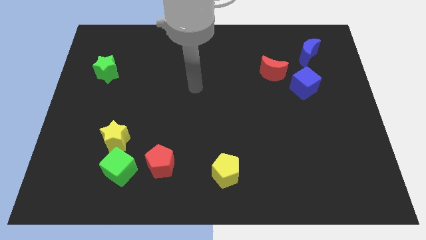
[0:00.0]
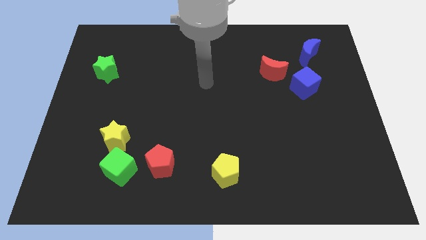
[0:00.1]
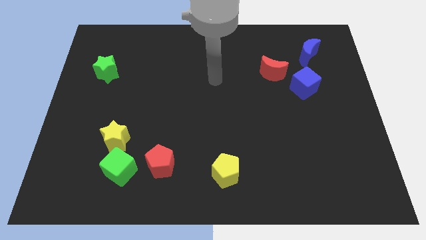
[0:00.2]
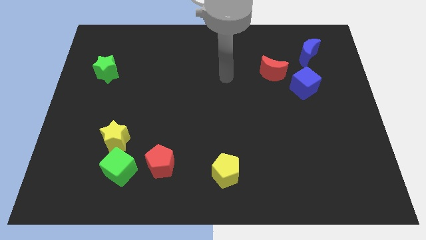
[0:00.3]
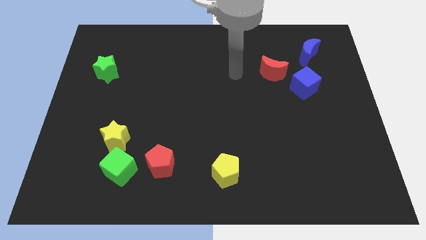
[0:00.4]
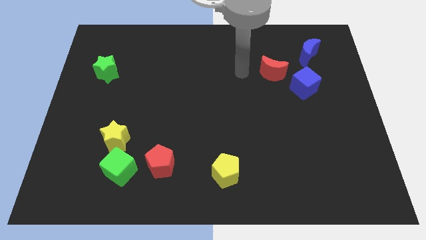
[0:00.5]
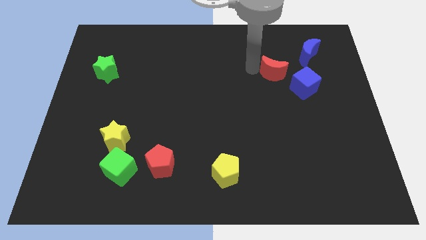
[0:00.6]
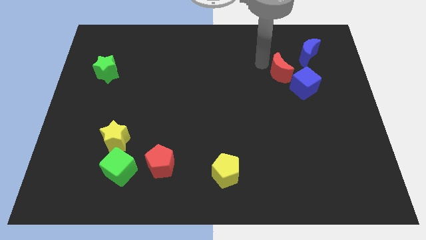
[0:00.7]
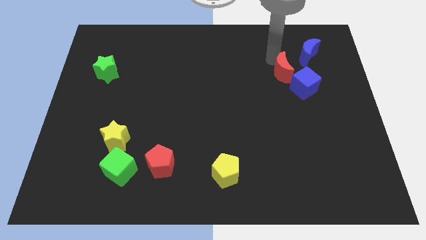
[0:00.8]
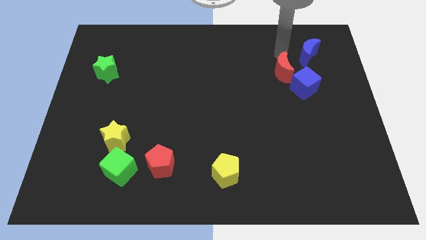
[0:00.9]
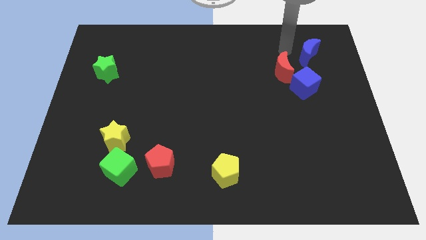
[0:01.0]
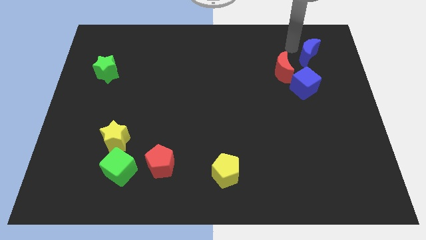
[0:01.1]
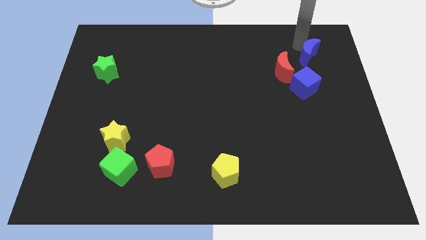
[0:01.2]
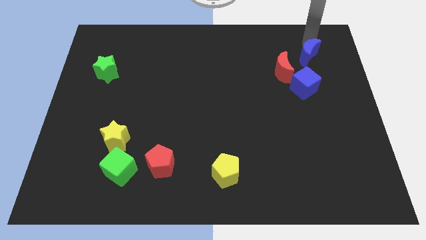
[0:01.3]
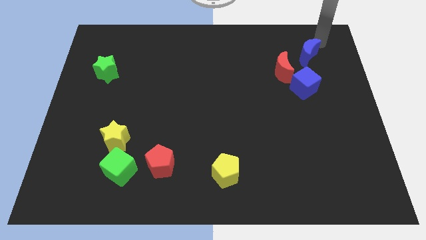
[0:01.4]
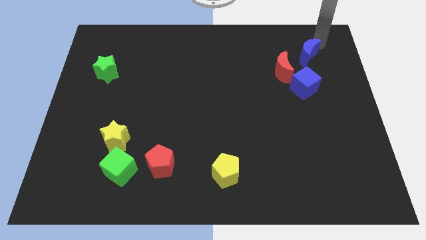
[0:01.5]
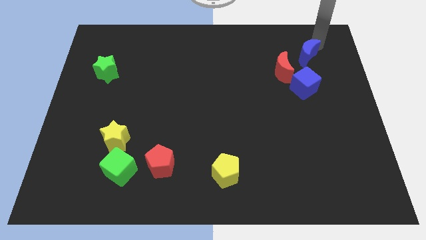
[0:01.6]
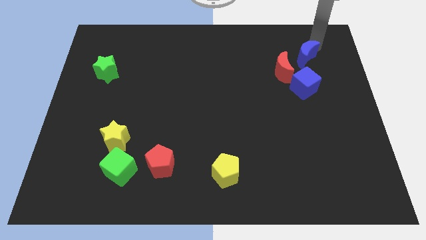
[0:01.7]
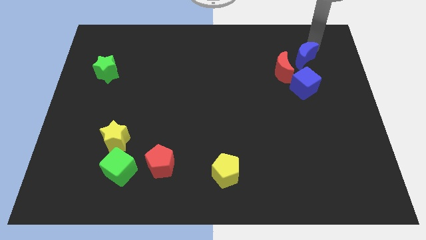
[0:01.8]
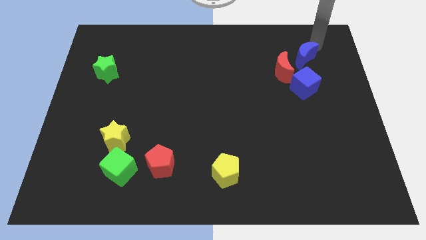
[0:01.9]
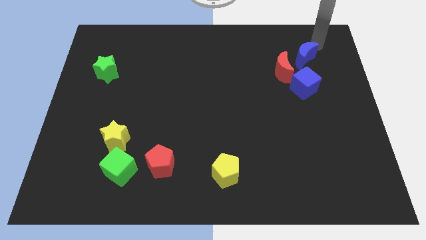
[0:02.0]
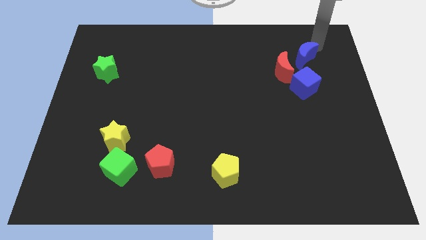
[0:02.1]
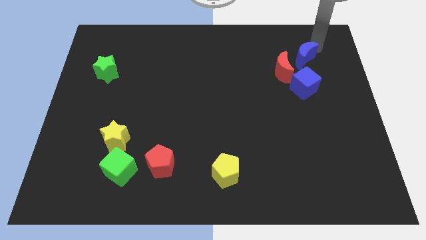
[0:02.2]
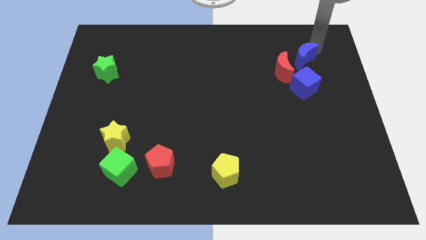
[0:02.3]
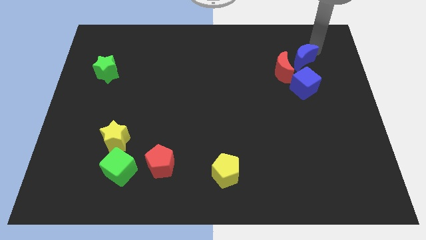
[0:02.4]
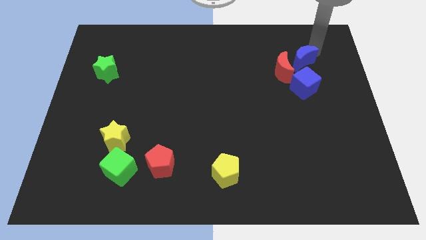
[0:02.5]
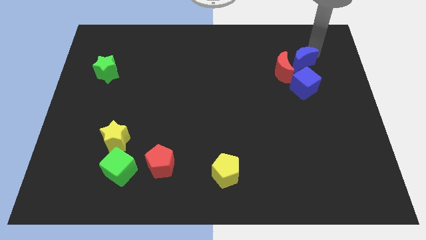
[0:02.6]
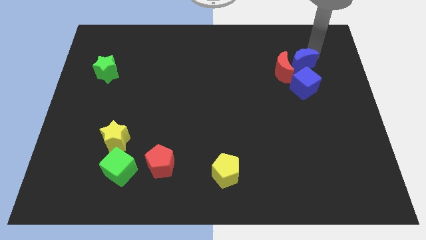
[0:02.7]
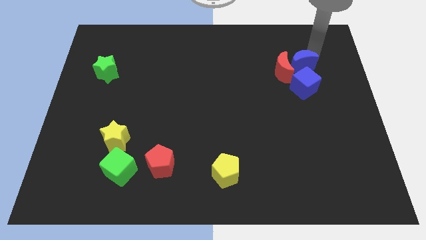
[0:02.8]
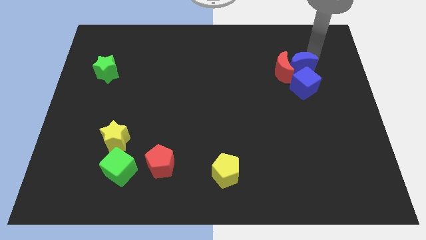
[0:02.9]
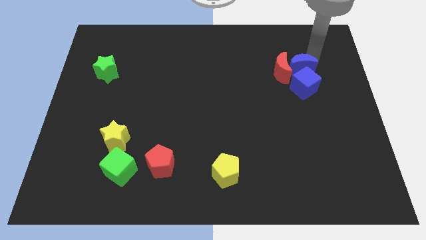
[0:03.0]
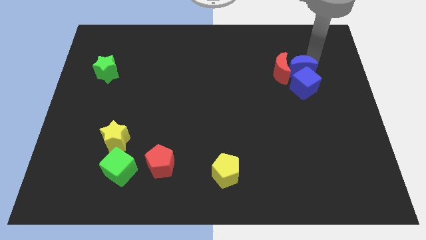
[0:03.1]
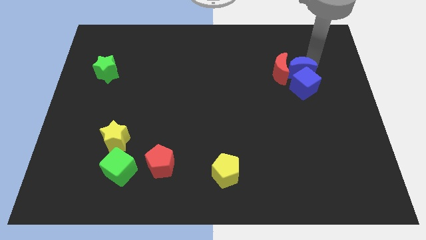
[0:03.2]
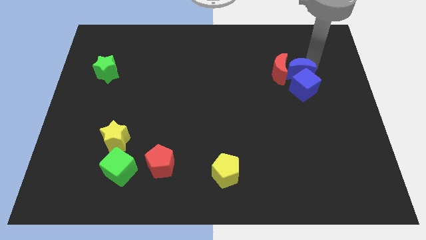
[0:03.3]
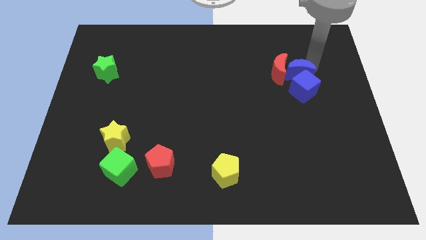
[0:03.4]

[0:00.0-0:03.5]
slightly move the blue moon down and to the left diagonally

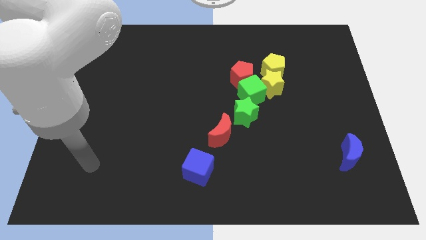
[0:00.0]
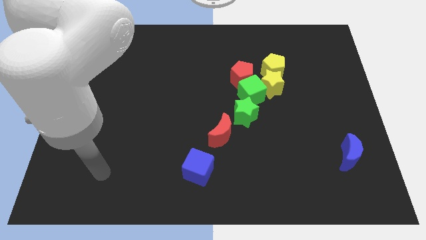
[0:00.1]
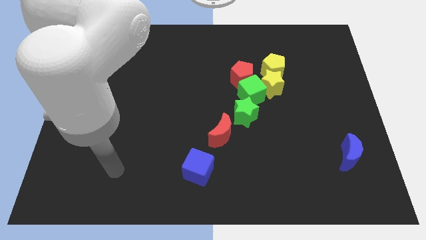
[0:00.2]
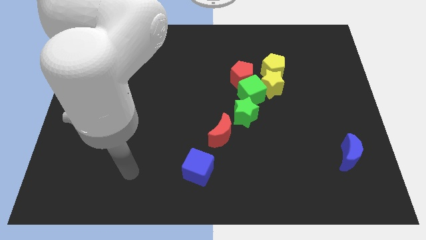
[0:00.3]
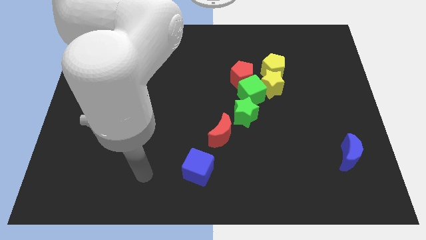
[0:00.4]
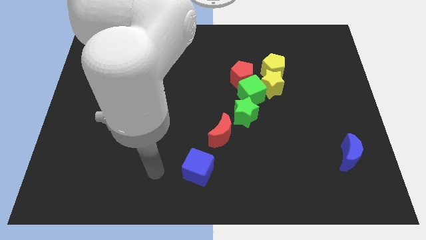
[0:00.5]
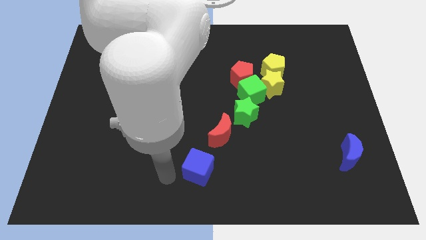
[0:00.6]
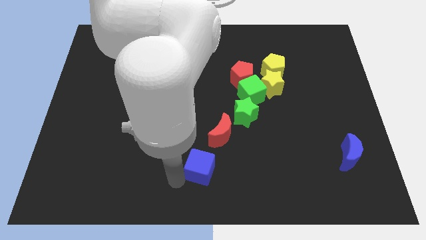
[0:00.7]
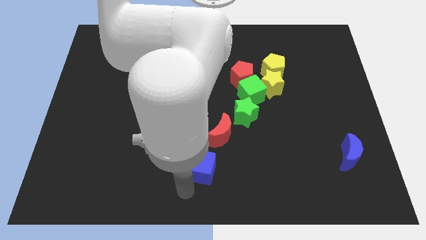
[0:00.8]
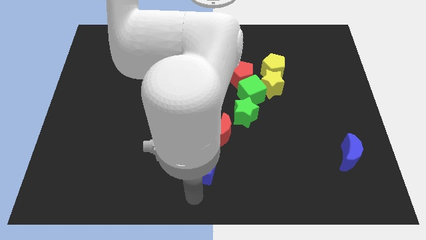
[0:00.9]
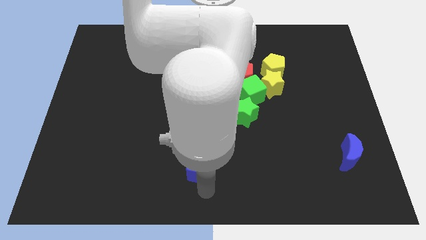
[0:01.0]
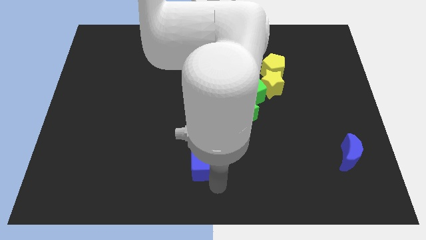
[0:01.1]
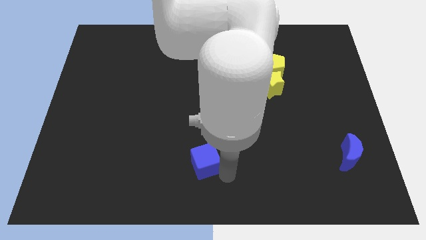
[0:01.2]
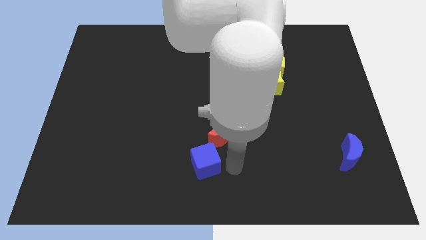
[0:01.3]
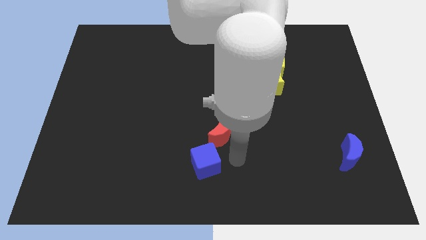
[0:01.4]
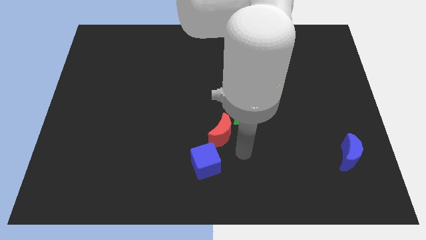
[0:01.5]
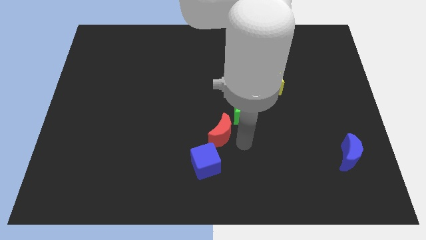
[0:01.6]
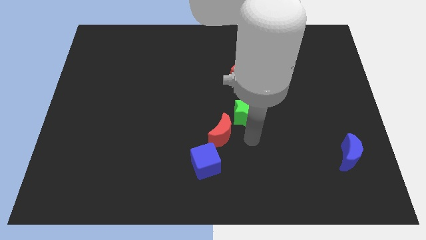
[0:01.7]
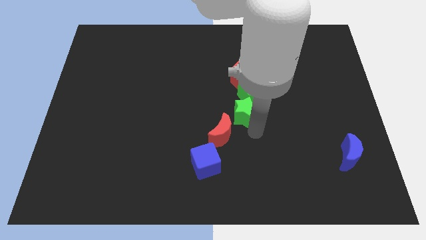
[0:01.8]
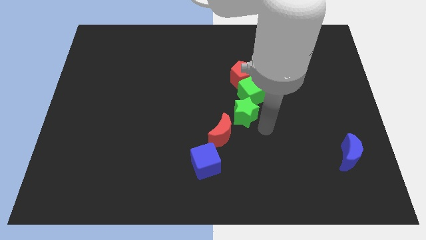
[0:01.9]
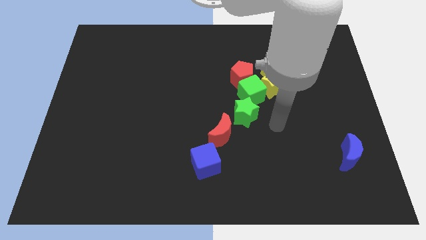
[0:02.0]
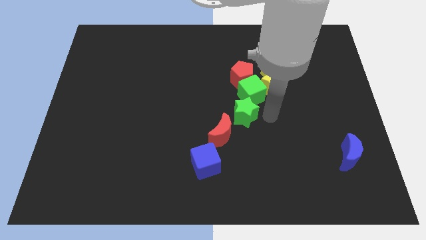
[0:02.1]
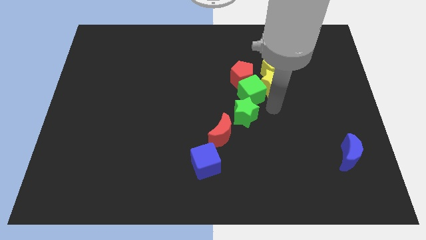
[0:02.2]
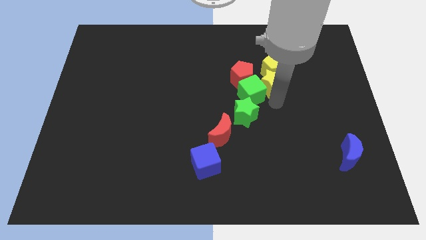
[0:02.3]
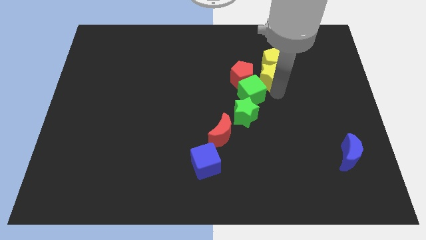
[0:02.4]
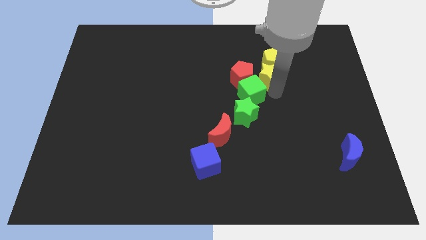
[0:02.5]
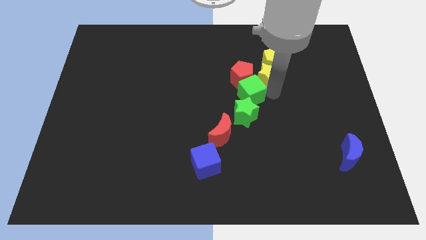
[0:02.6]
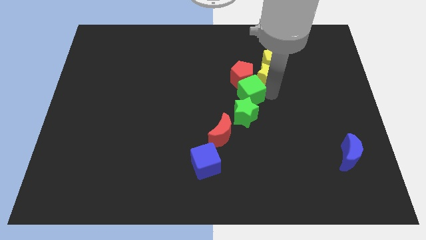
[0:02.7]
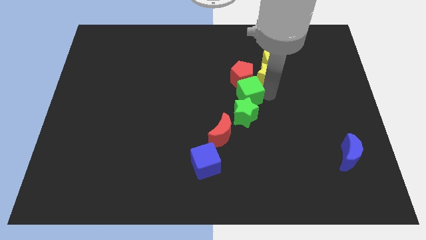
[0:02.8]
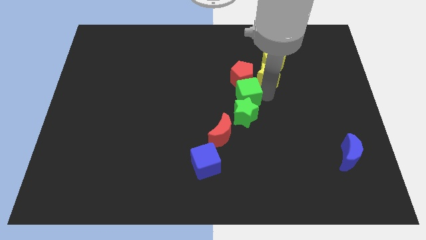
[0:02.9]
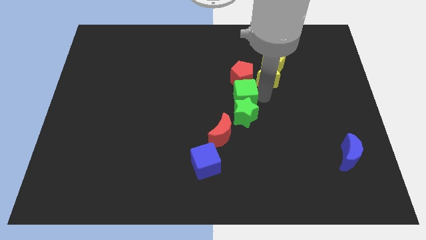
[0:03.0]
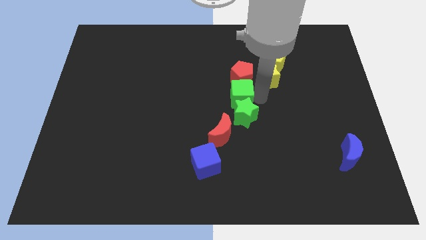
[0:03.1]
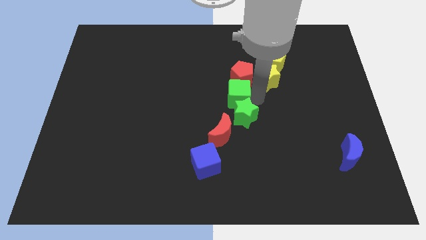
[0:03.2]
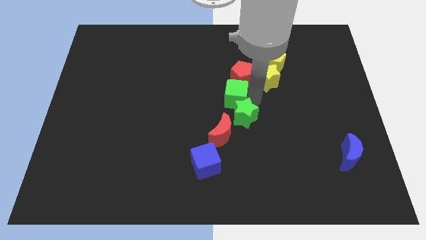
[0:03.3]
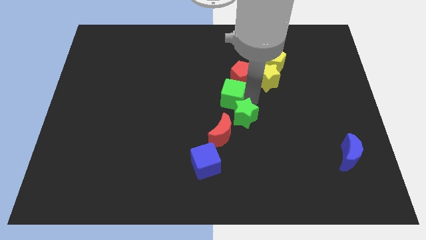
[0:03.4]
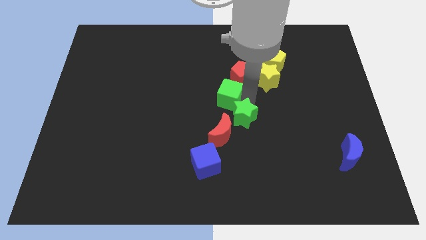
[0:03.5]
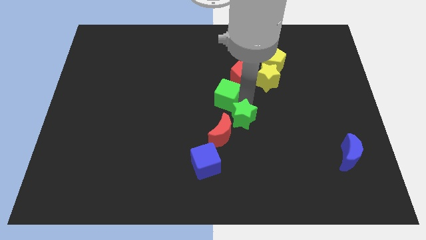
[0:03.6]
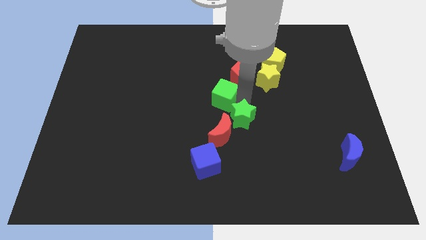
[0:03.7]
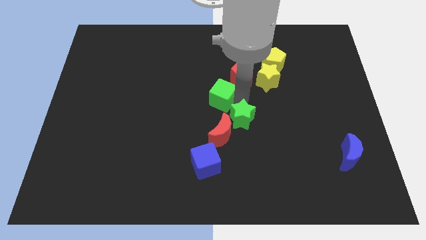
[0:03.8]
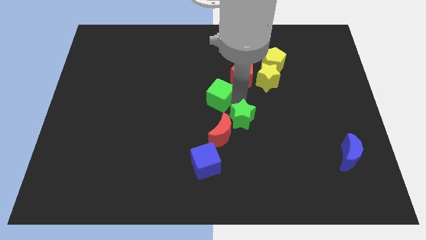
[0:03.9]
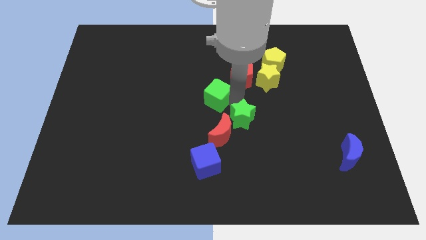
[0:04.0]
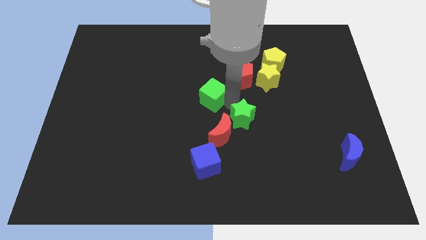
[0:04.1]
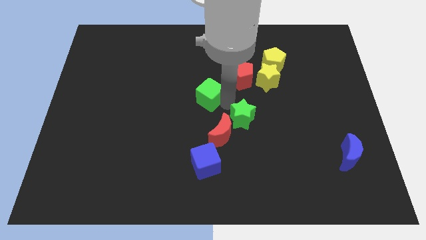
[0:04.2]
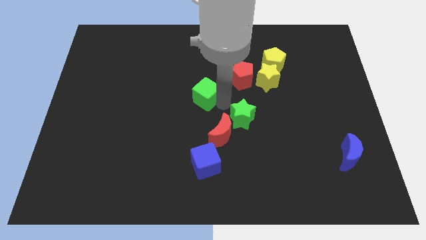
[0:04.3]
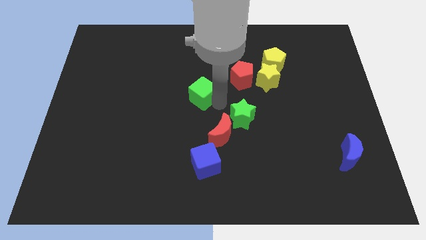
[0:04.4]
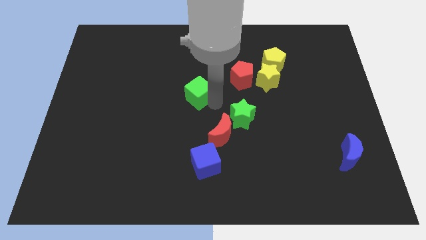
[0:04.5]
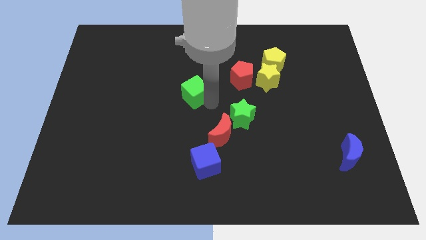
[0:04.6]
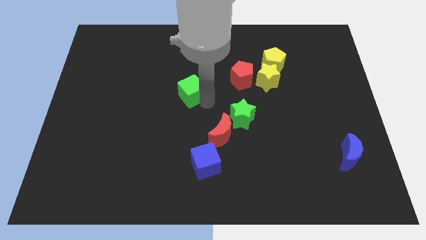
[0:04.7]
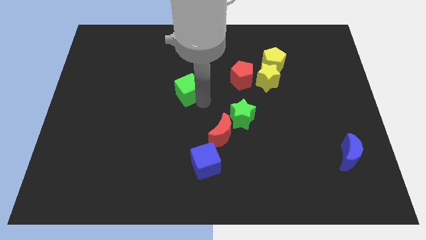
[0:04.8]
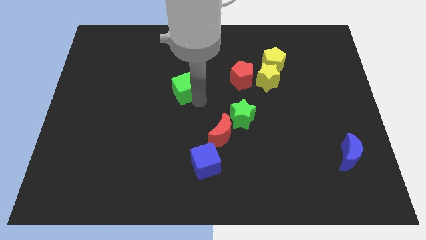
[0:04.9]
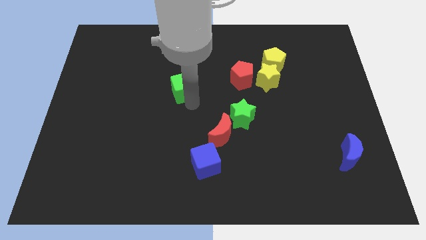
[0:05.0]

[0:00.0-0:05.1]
push the green cube slightly upwards and to the left
